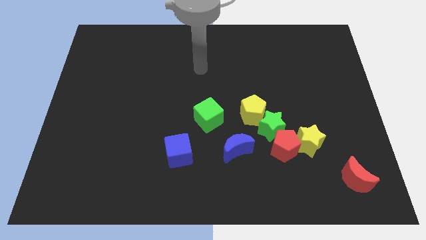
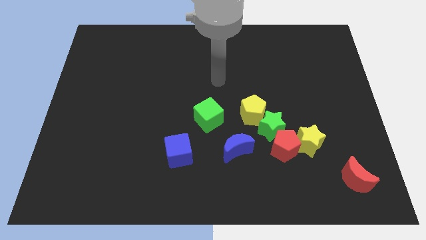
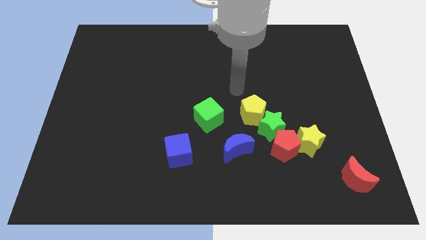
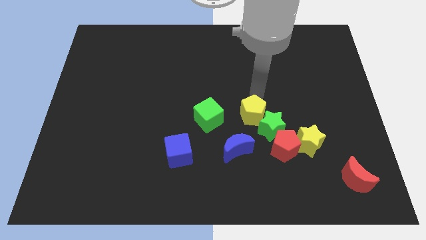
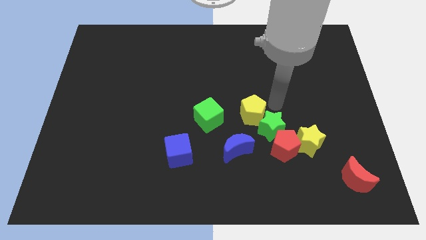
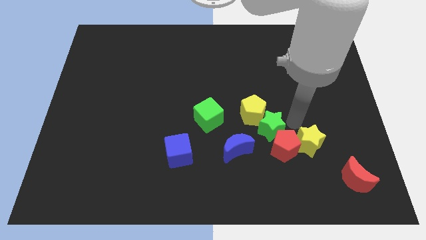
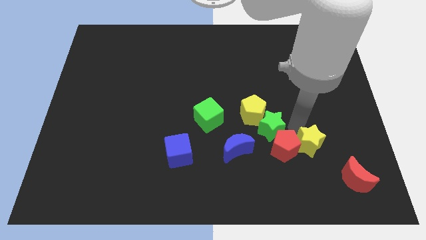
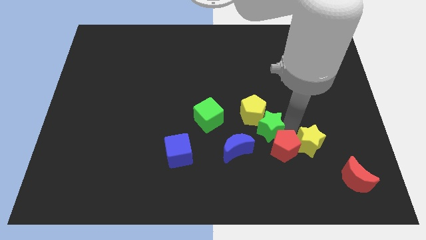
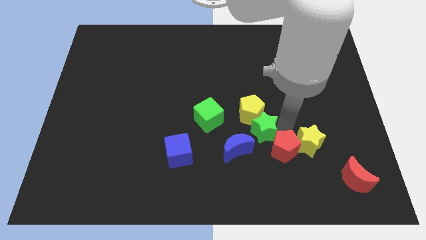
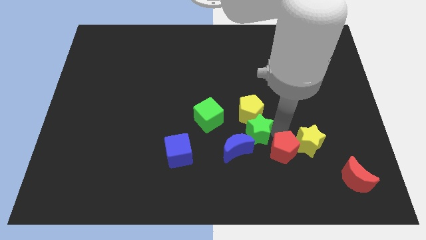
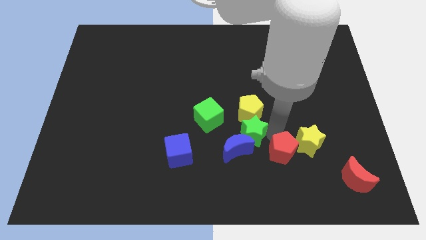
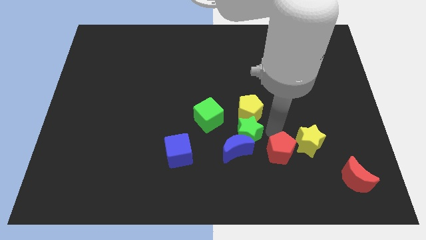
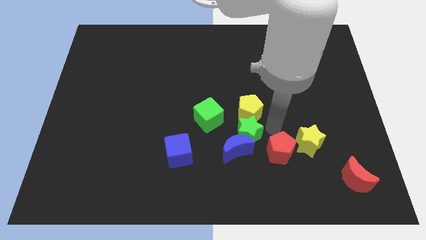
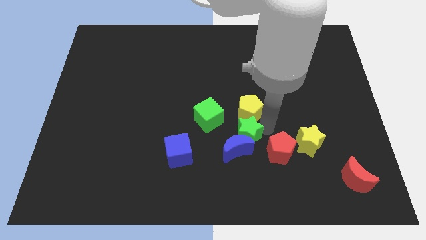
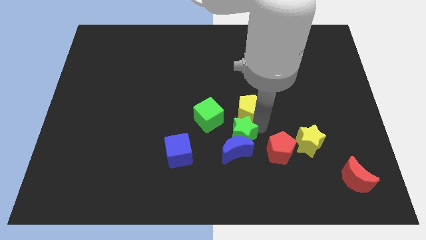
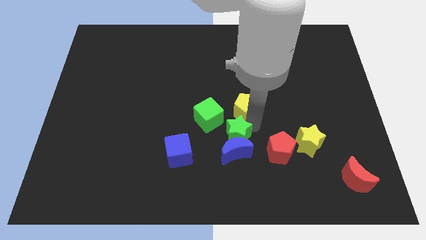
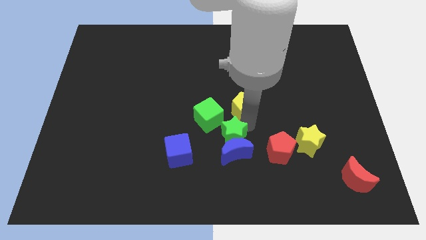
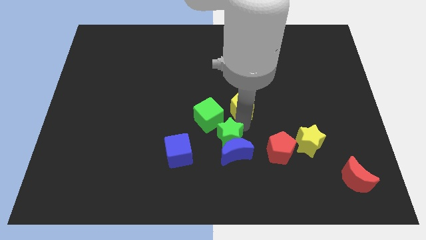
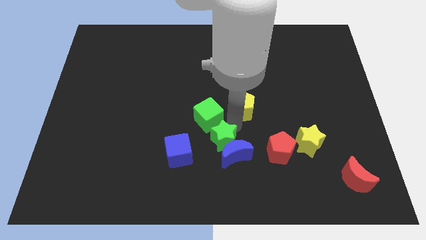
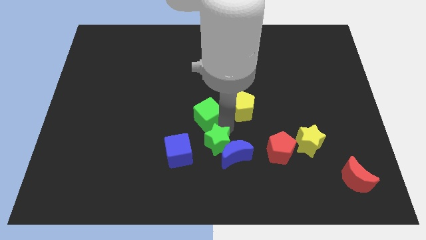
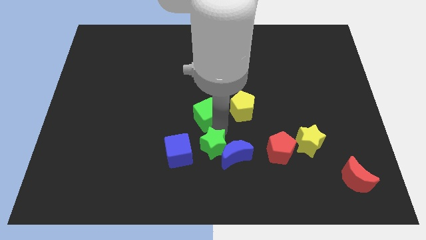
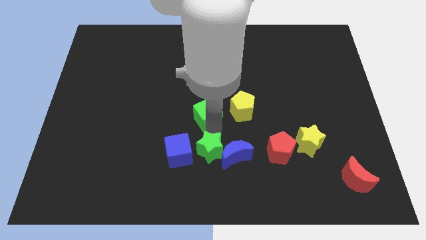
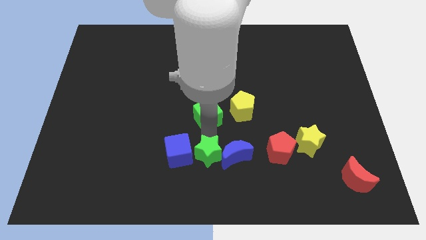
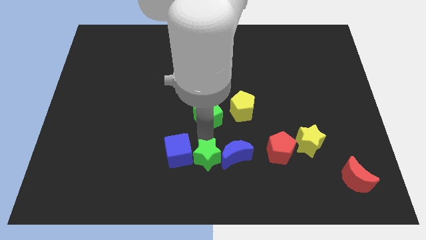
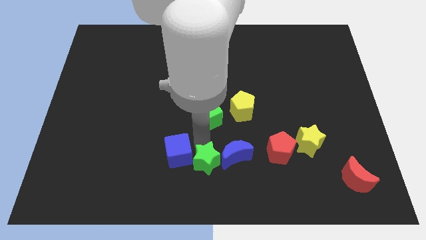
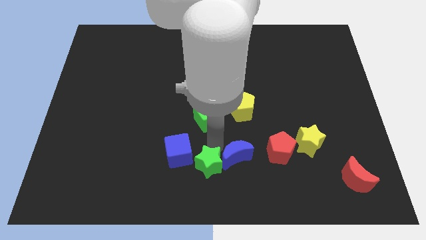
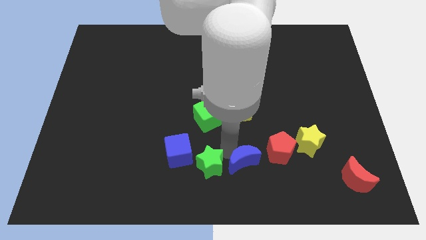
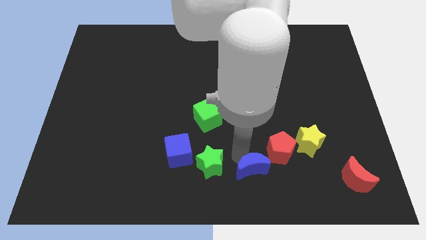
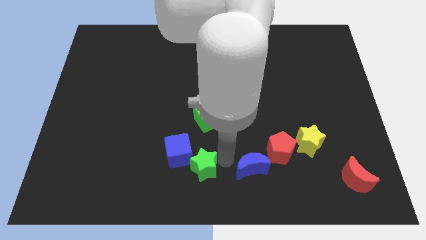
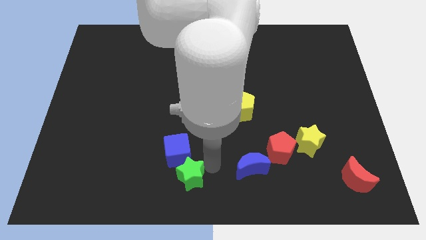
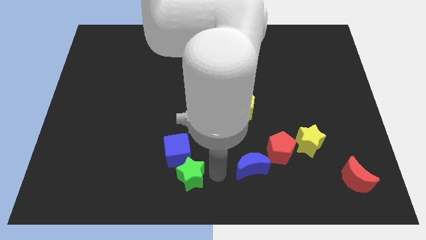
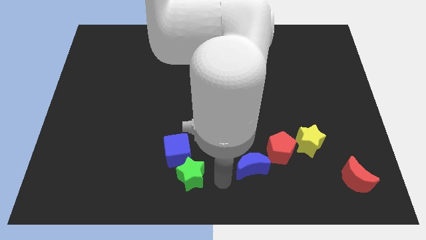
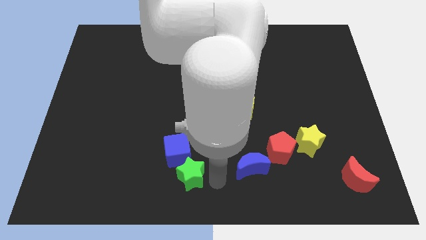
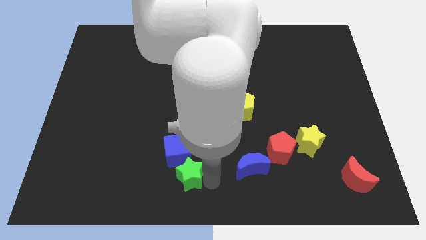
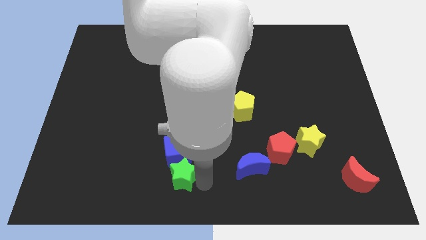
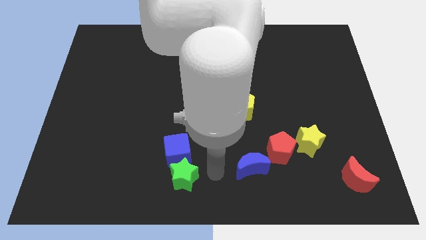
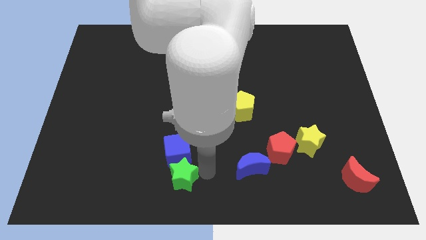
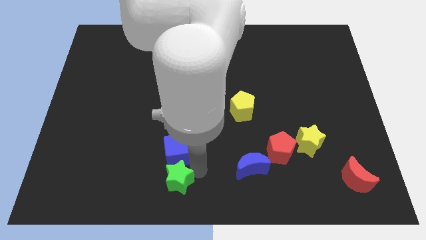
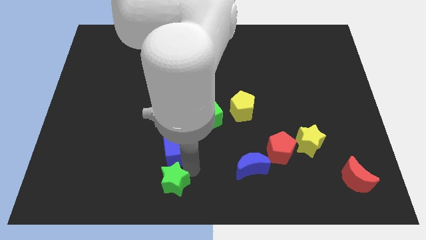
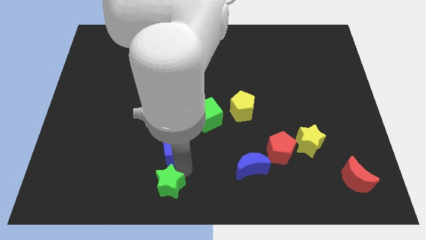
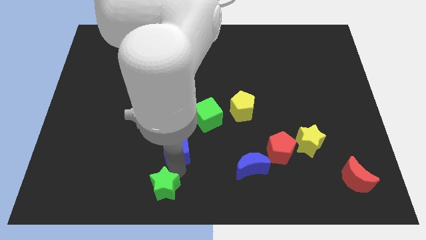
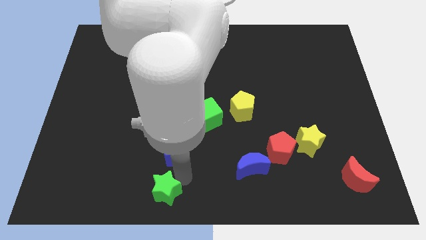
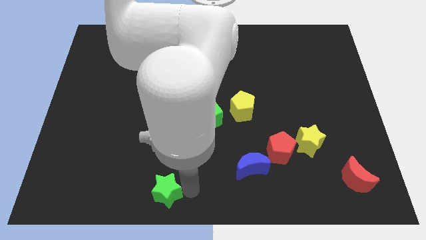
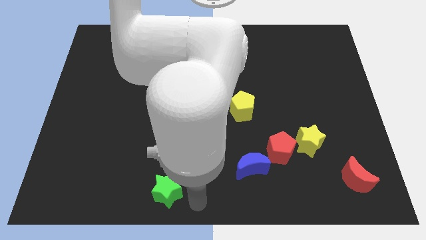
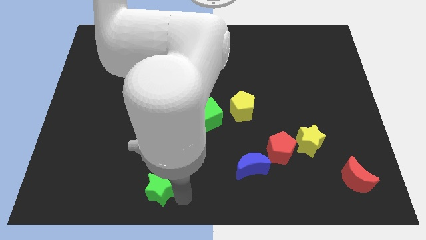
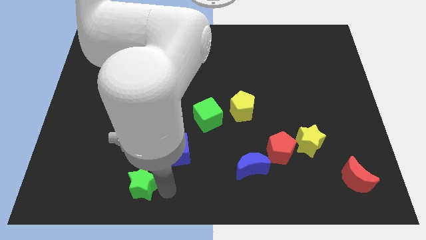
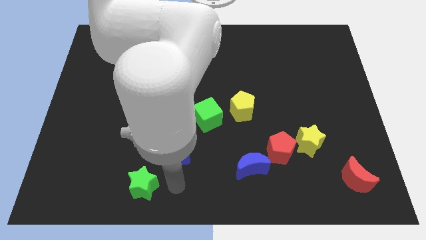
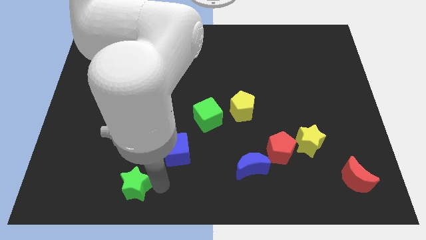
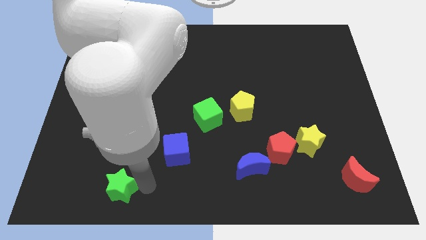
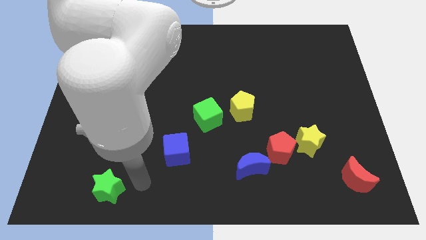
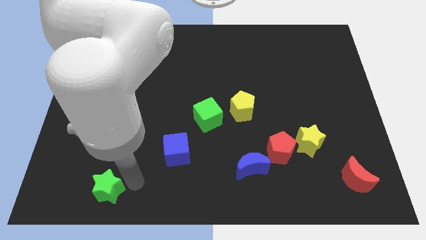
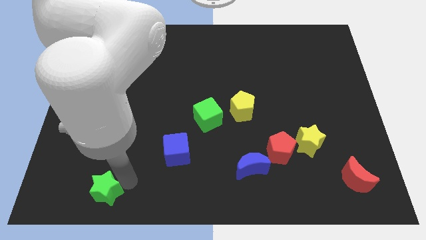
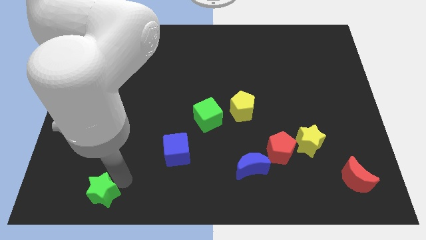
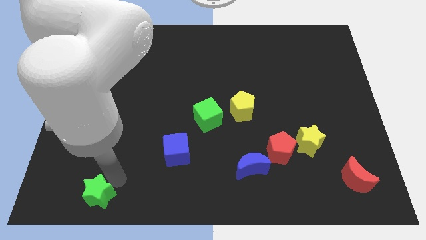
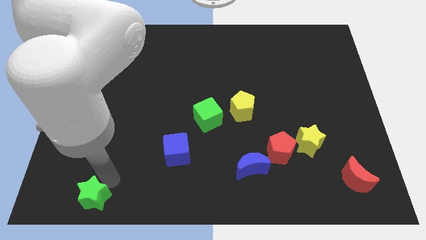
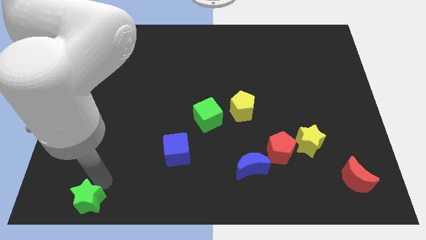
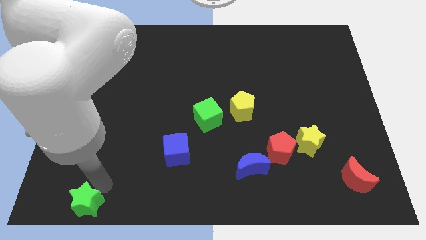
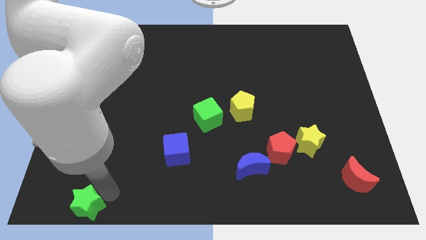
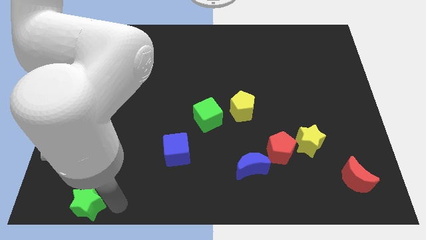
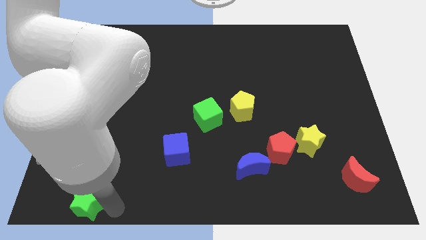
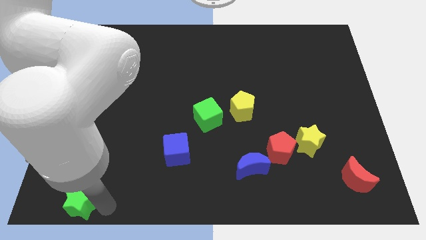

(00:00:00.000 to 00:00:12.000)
move the green star to the lower left corner
